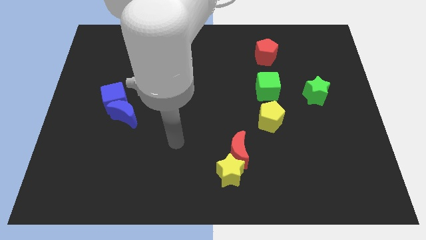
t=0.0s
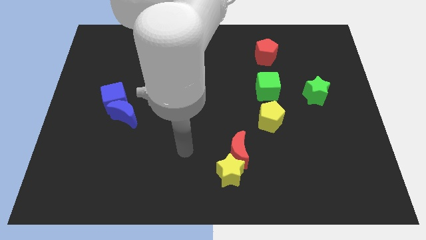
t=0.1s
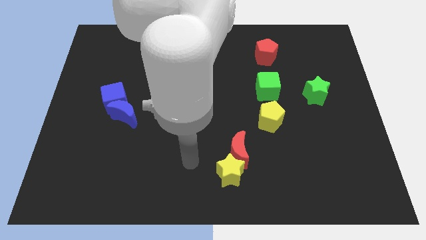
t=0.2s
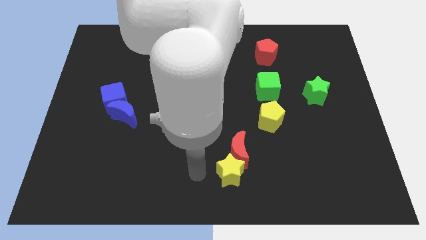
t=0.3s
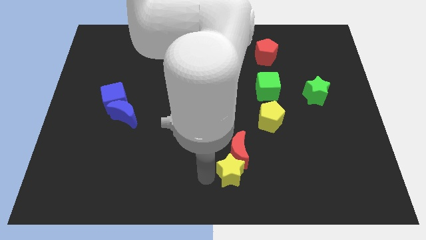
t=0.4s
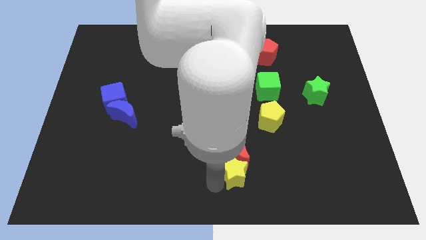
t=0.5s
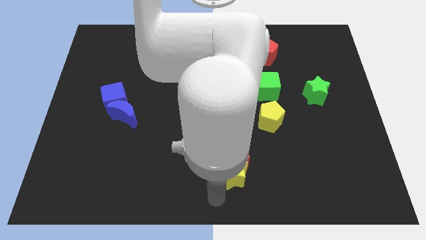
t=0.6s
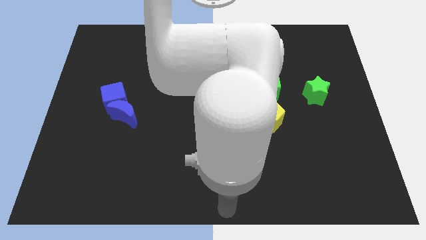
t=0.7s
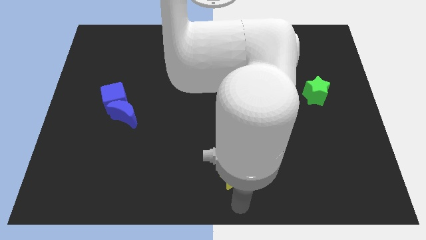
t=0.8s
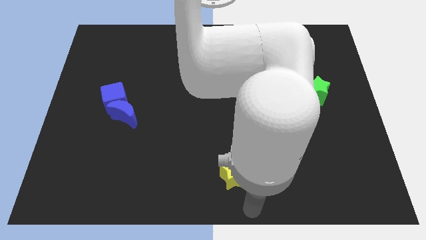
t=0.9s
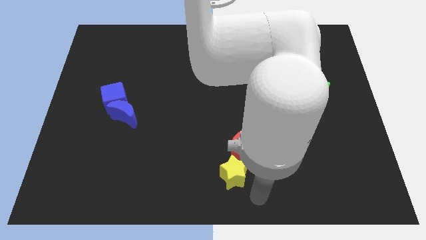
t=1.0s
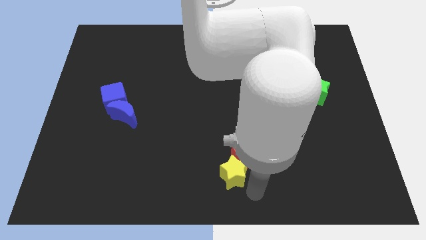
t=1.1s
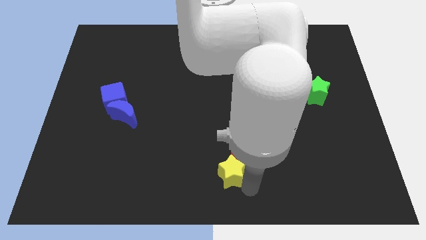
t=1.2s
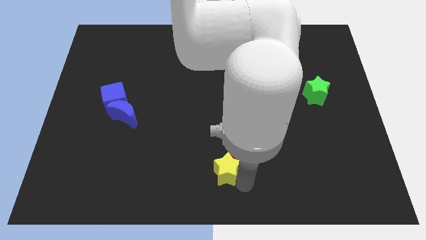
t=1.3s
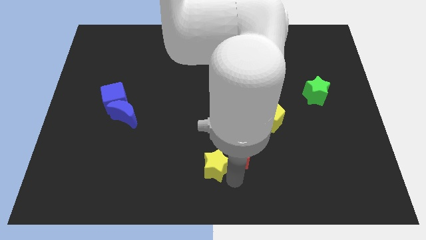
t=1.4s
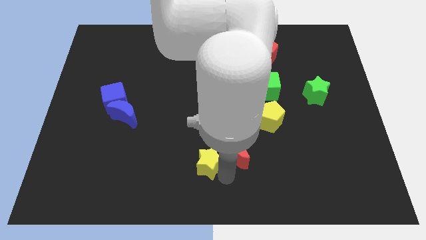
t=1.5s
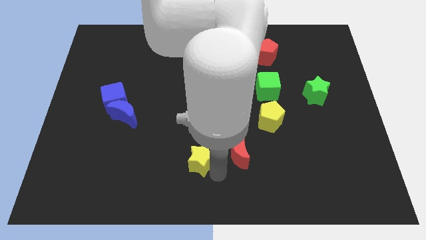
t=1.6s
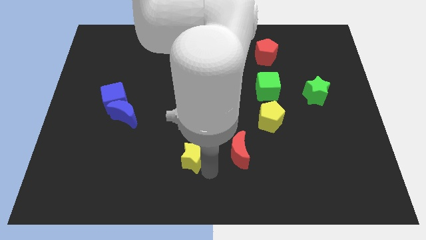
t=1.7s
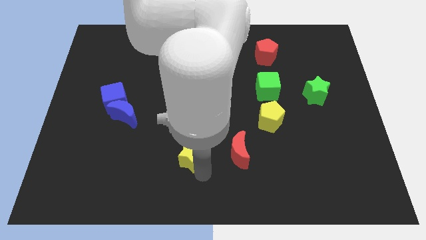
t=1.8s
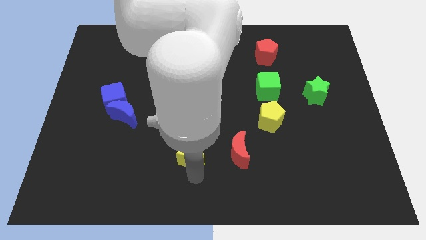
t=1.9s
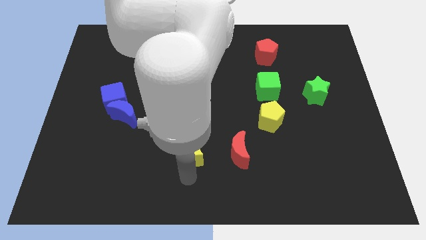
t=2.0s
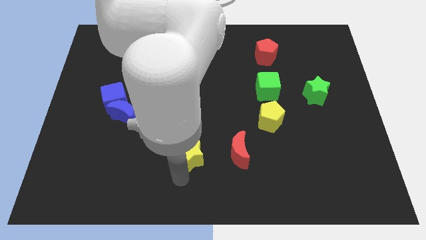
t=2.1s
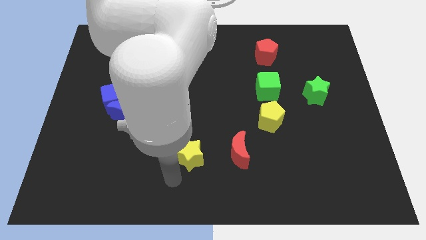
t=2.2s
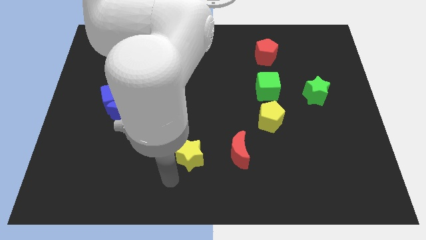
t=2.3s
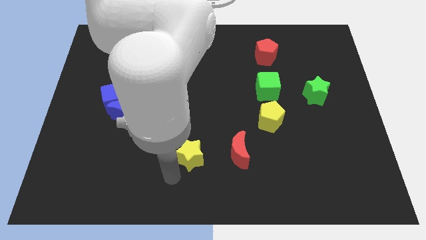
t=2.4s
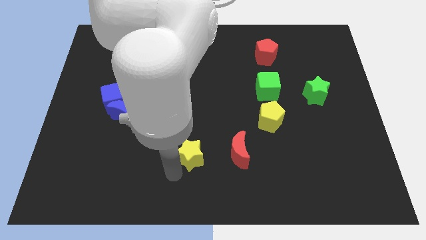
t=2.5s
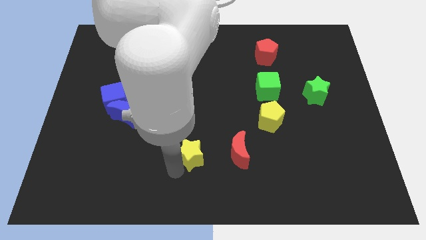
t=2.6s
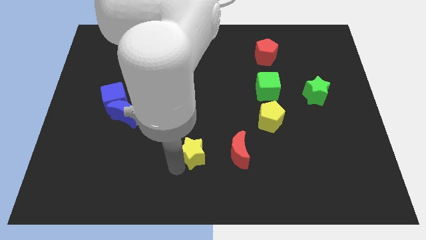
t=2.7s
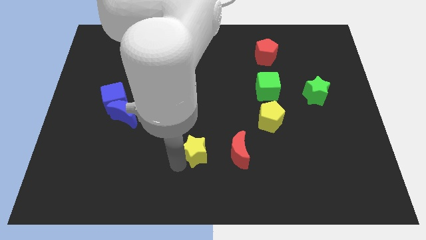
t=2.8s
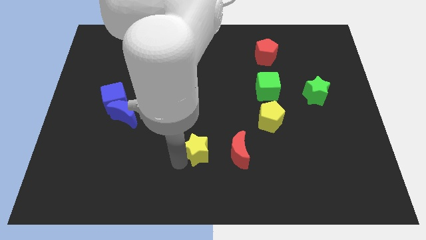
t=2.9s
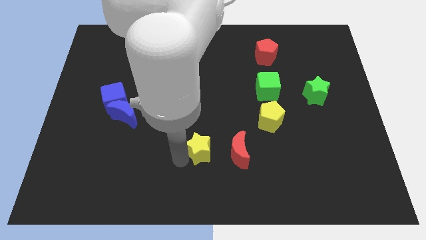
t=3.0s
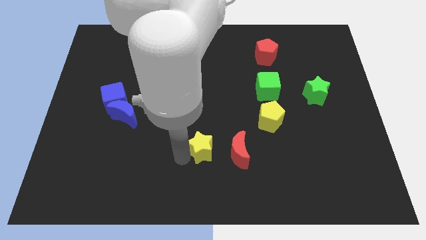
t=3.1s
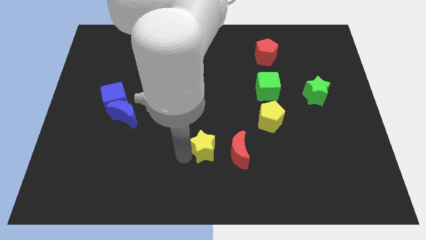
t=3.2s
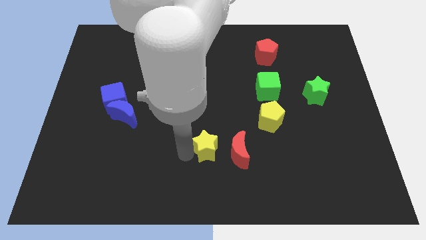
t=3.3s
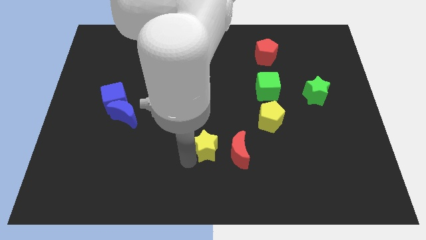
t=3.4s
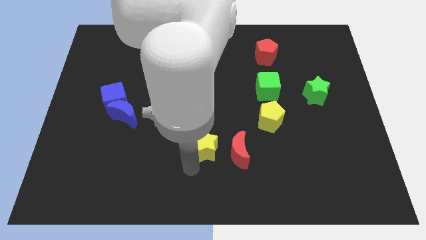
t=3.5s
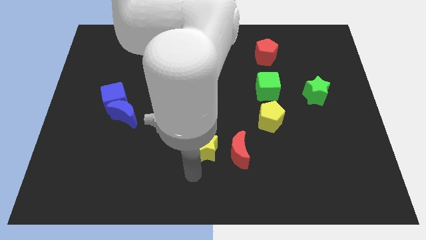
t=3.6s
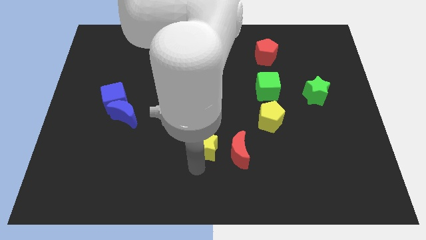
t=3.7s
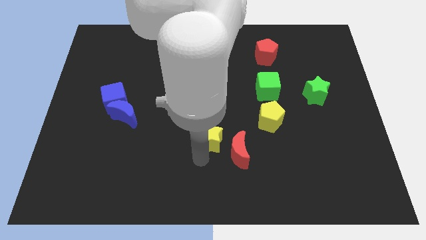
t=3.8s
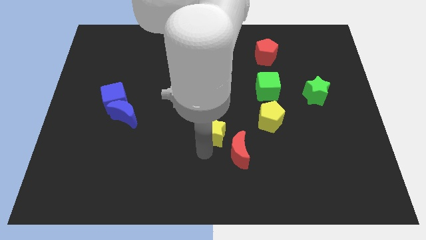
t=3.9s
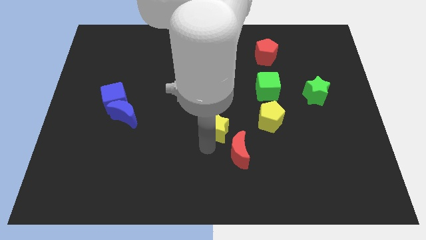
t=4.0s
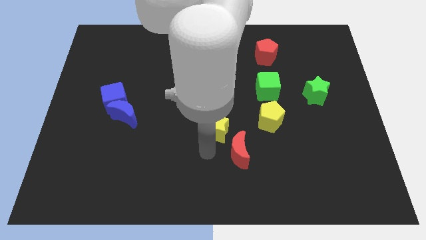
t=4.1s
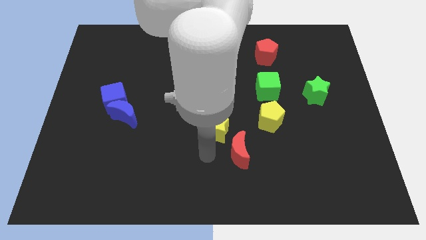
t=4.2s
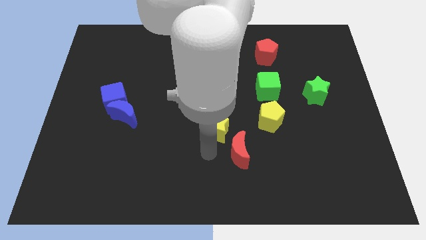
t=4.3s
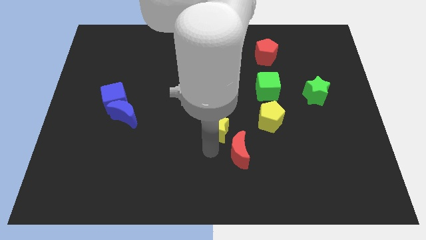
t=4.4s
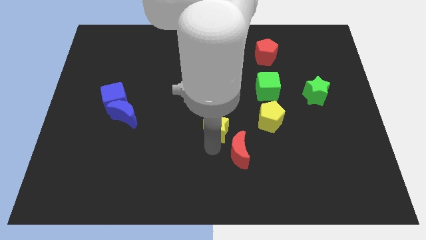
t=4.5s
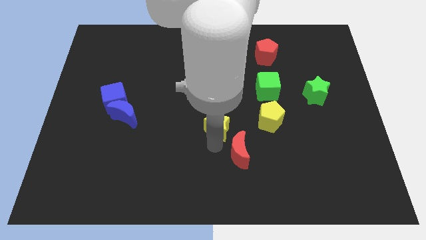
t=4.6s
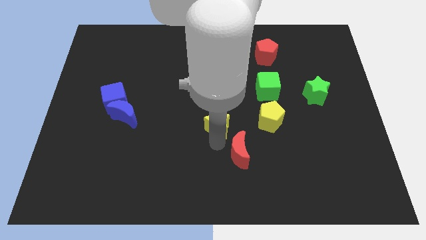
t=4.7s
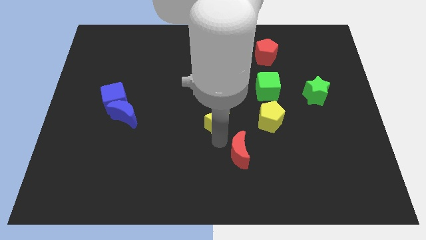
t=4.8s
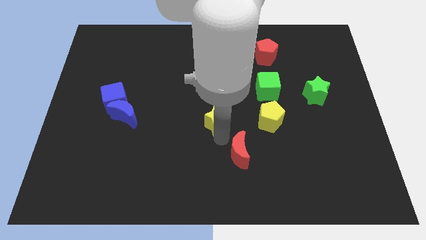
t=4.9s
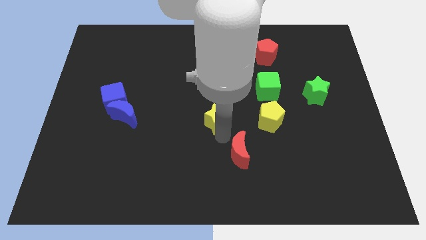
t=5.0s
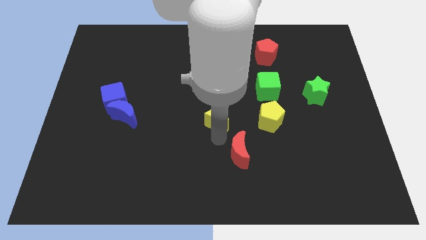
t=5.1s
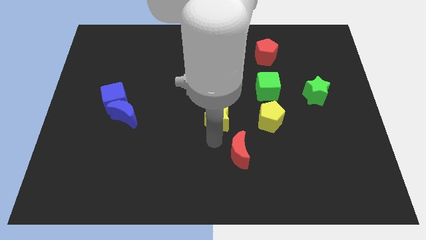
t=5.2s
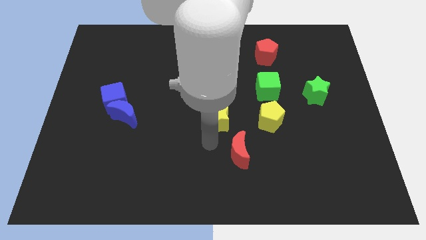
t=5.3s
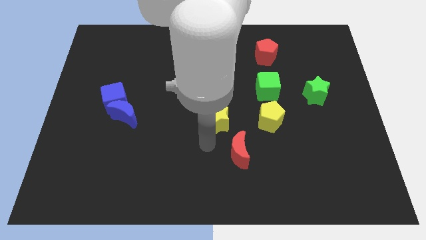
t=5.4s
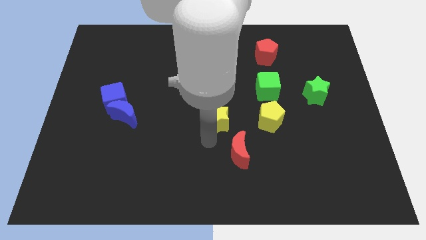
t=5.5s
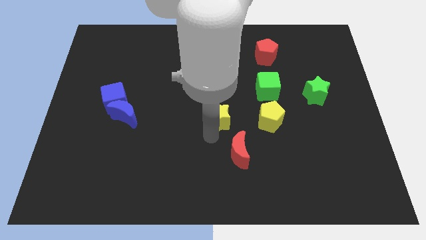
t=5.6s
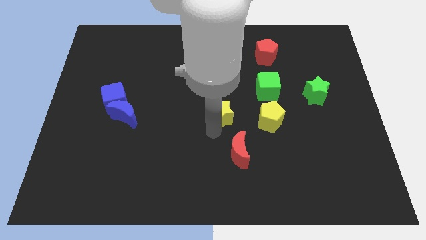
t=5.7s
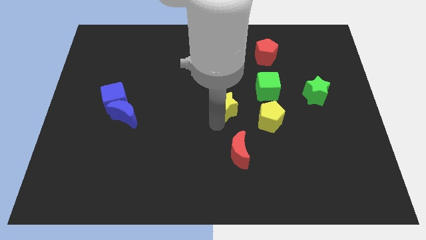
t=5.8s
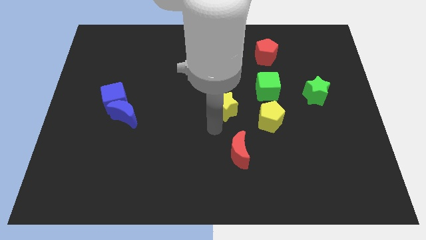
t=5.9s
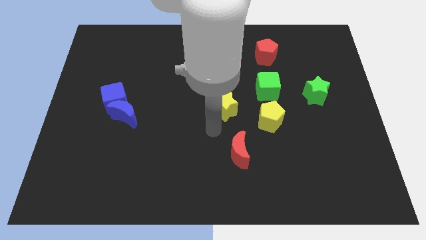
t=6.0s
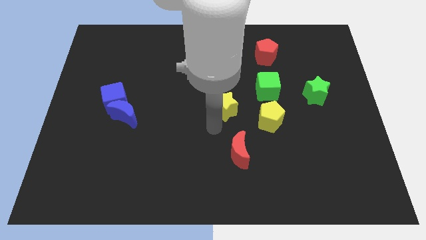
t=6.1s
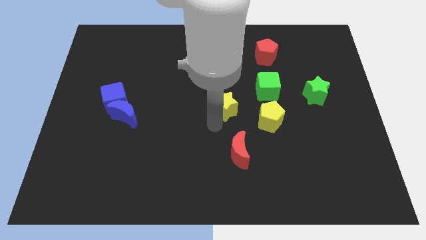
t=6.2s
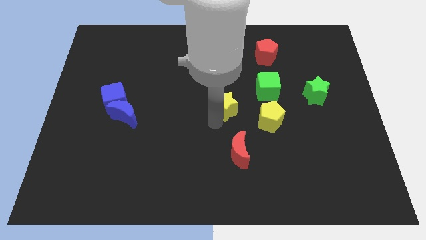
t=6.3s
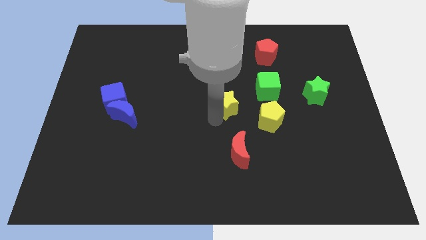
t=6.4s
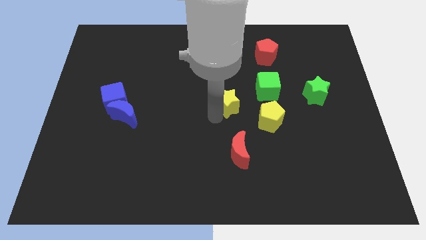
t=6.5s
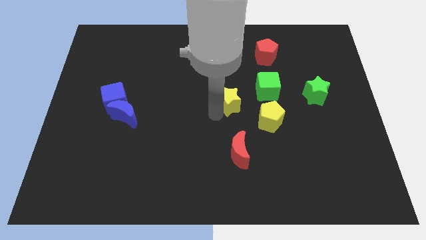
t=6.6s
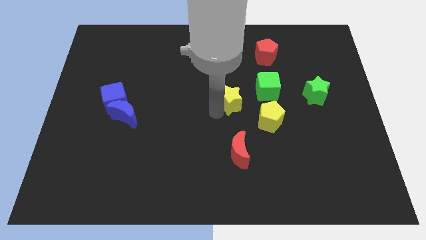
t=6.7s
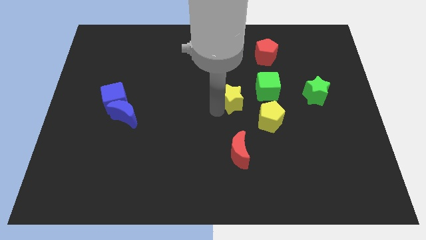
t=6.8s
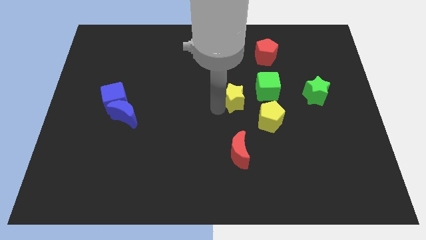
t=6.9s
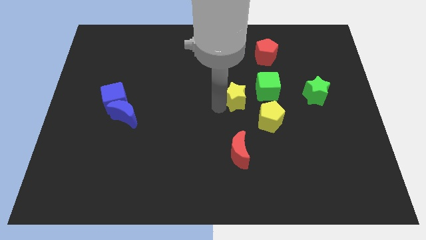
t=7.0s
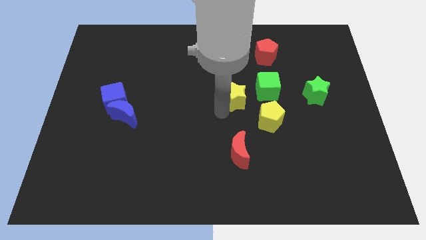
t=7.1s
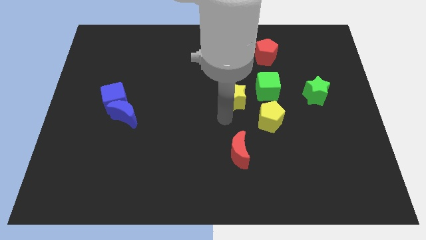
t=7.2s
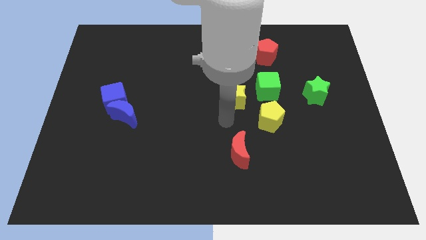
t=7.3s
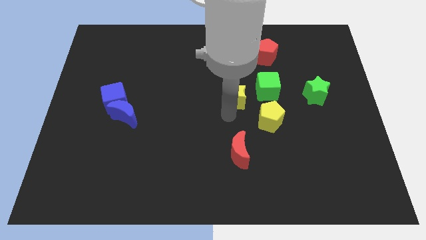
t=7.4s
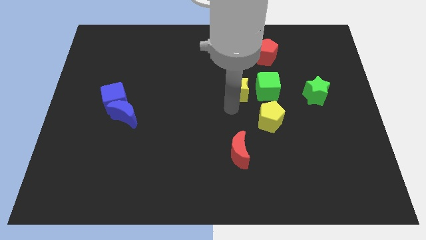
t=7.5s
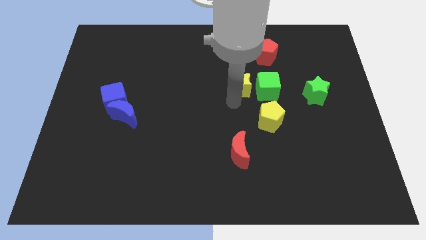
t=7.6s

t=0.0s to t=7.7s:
push the yellow star to the top left of the green cube

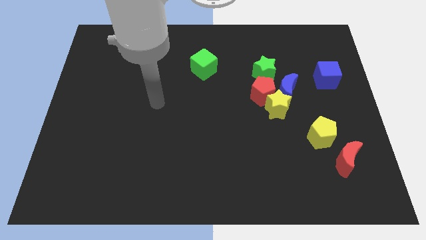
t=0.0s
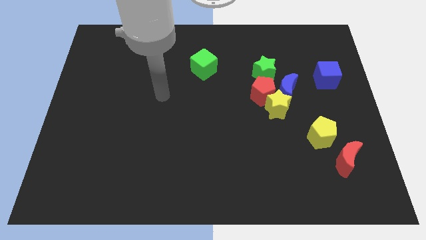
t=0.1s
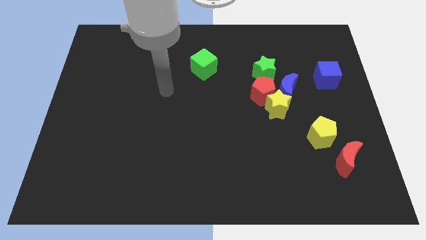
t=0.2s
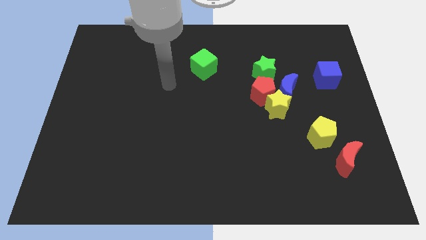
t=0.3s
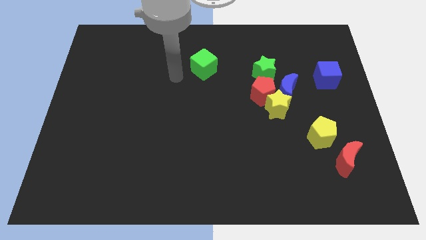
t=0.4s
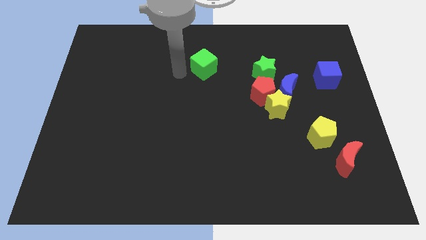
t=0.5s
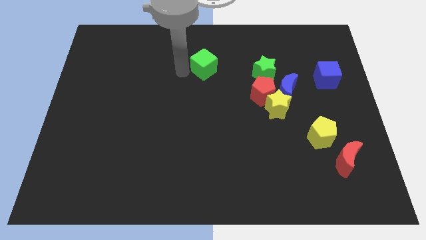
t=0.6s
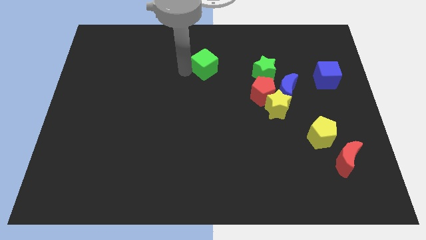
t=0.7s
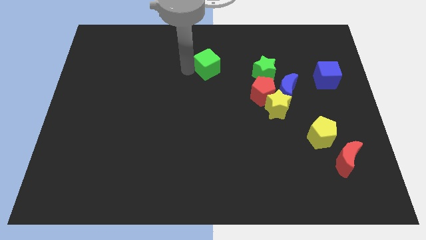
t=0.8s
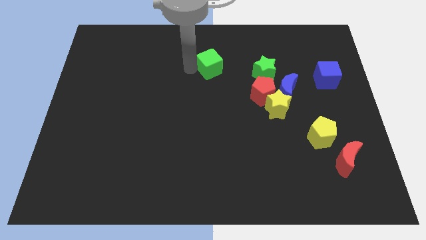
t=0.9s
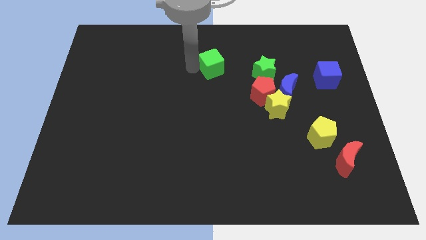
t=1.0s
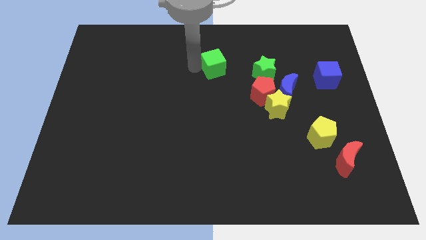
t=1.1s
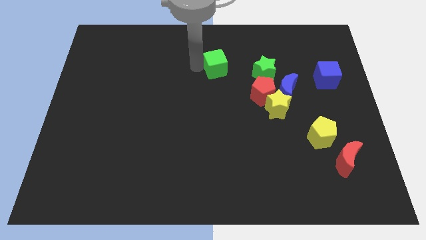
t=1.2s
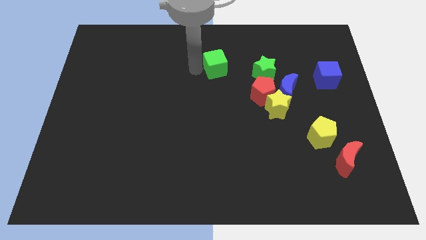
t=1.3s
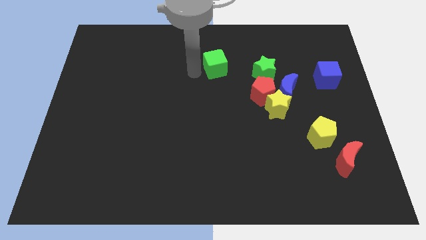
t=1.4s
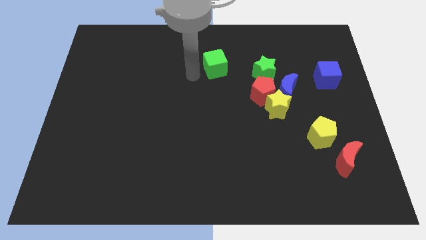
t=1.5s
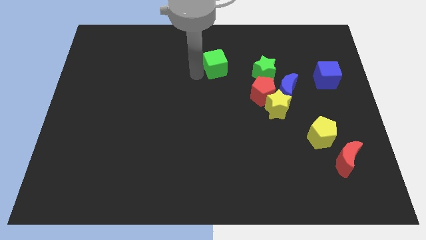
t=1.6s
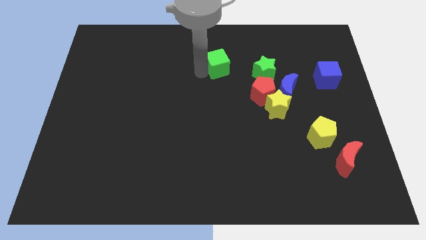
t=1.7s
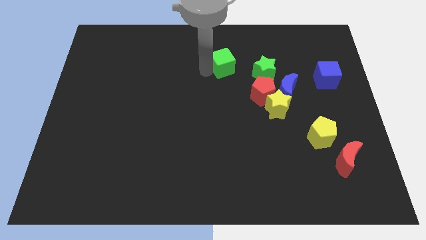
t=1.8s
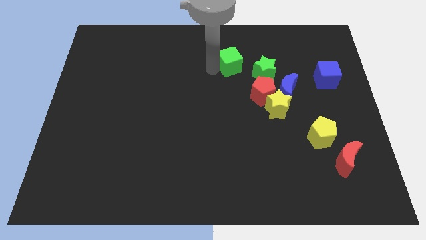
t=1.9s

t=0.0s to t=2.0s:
slide the green cube diagonally up and to the left of the green star
